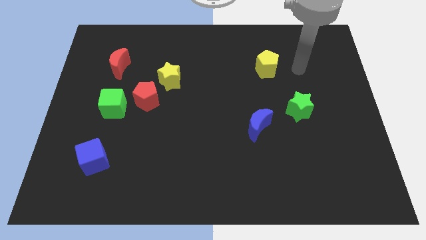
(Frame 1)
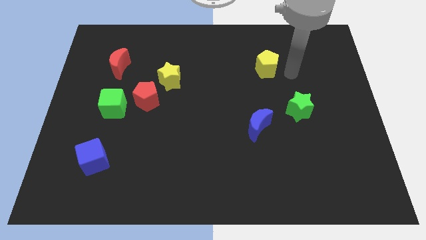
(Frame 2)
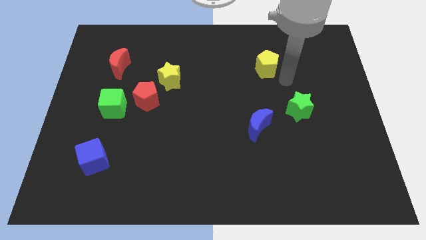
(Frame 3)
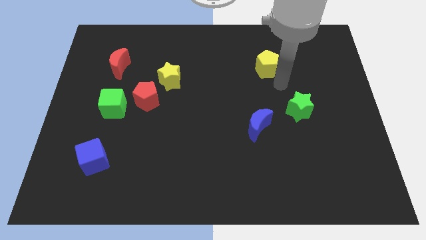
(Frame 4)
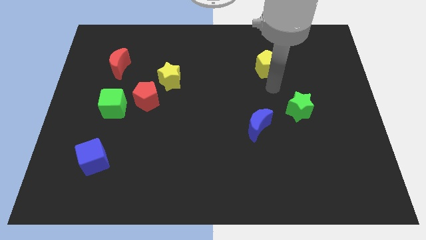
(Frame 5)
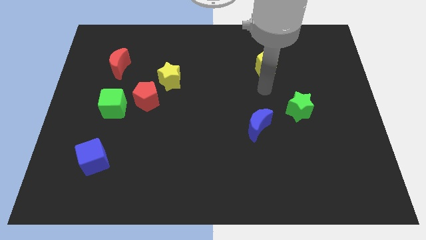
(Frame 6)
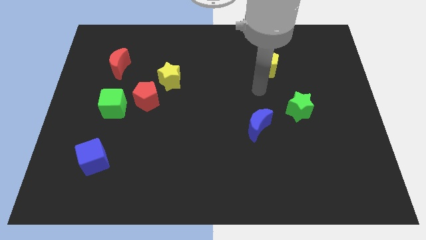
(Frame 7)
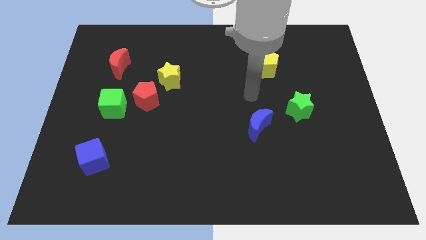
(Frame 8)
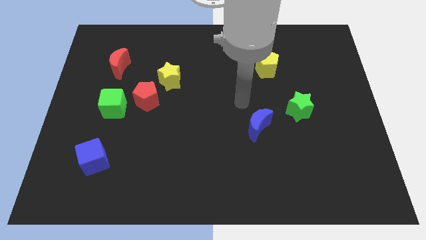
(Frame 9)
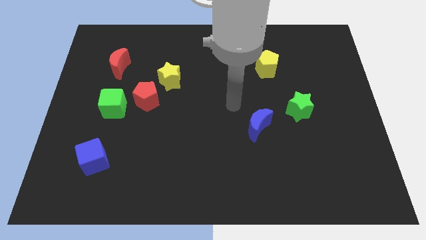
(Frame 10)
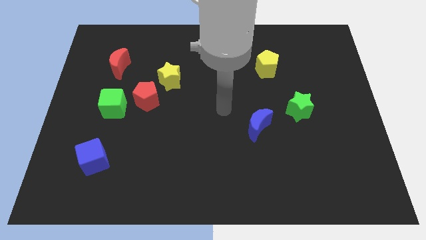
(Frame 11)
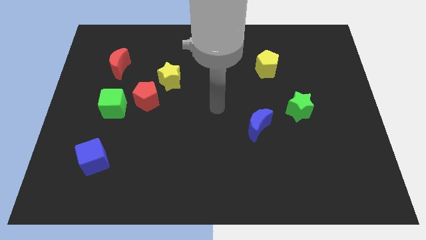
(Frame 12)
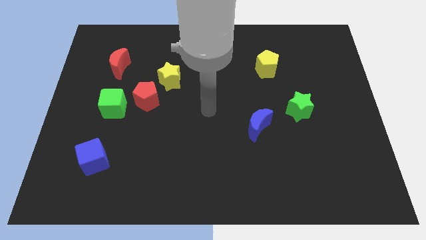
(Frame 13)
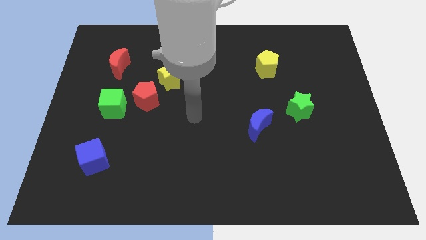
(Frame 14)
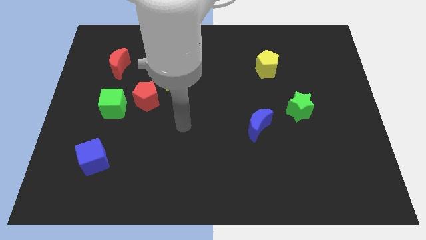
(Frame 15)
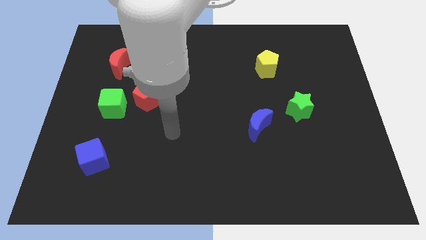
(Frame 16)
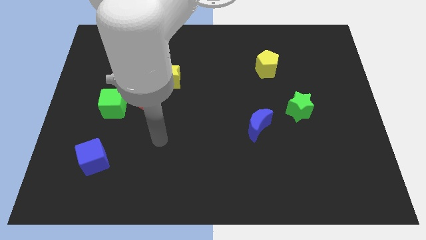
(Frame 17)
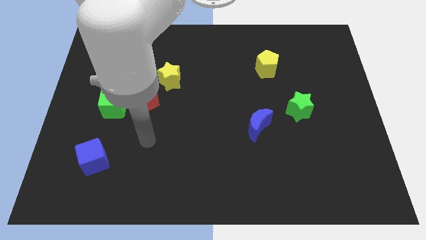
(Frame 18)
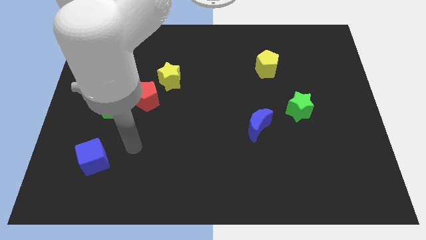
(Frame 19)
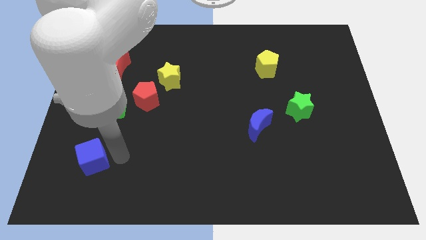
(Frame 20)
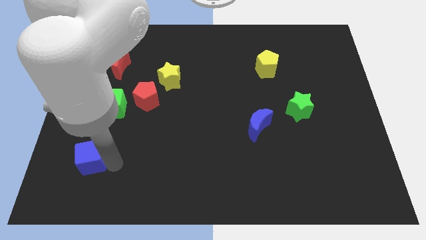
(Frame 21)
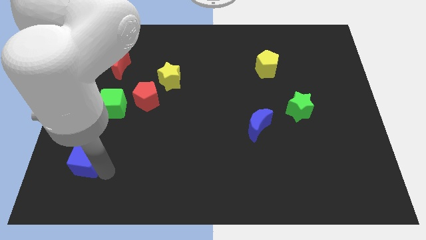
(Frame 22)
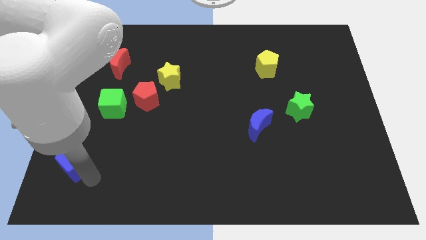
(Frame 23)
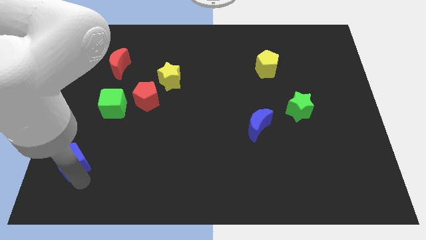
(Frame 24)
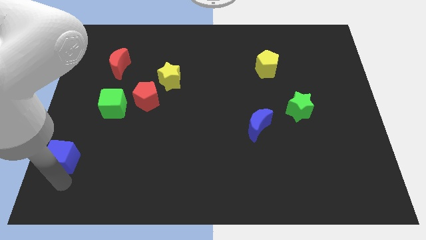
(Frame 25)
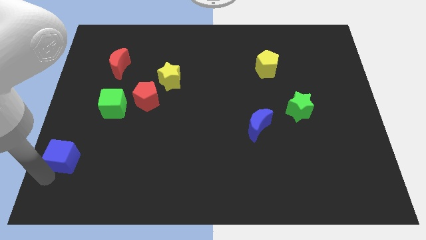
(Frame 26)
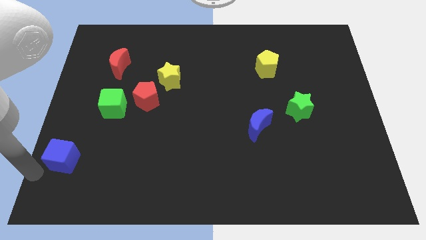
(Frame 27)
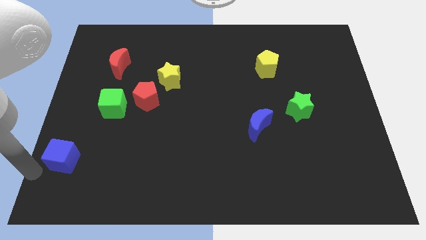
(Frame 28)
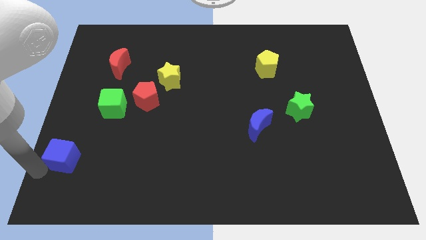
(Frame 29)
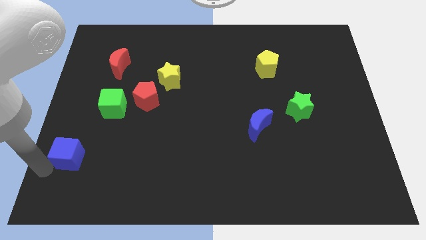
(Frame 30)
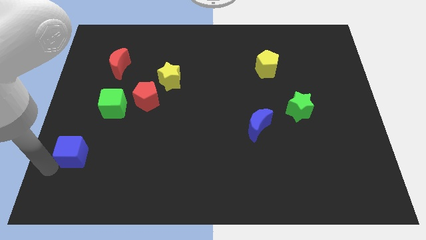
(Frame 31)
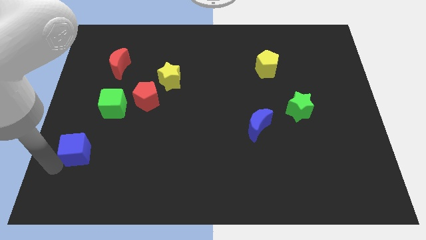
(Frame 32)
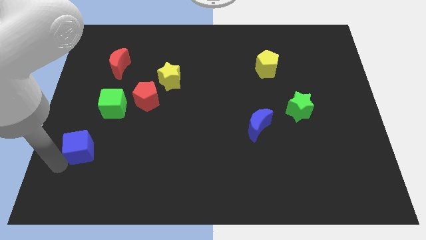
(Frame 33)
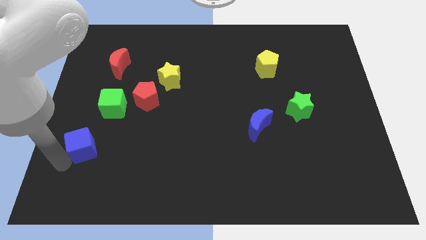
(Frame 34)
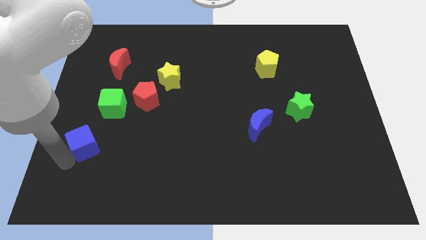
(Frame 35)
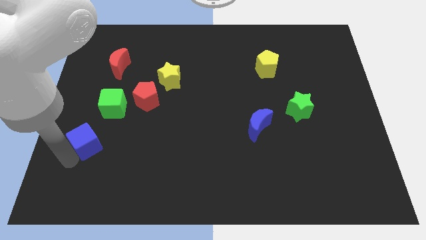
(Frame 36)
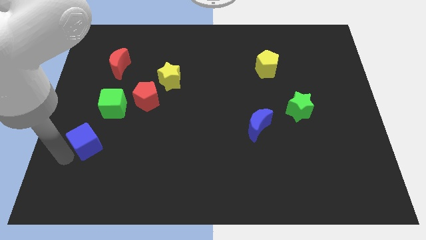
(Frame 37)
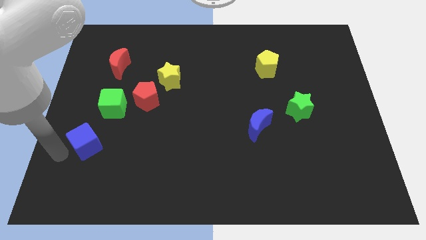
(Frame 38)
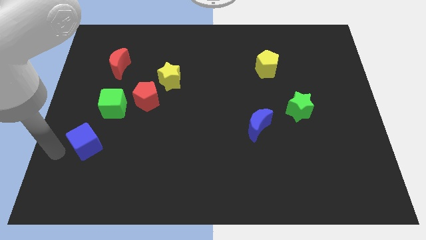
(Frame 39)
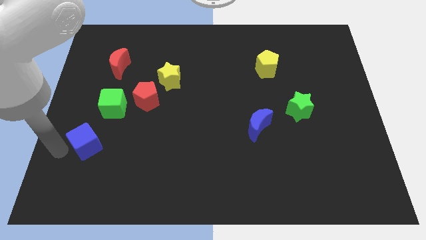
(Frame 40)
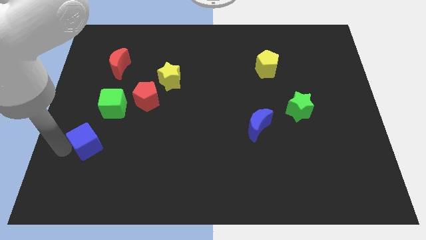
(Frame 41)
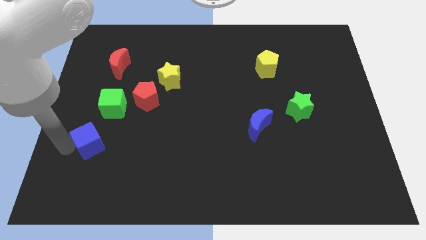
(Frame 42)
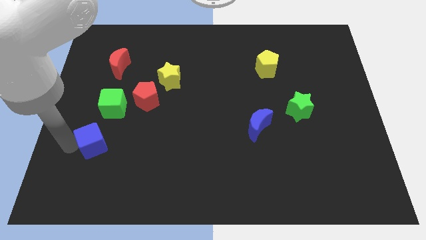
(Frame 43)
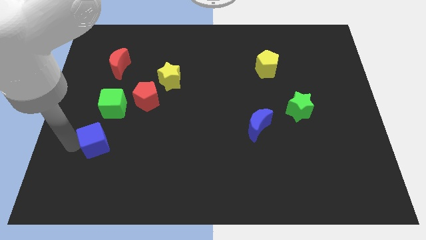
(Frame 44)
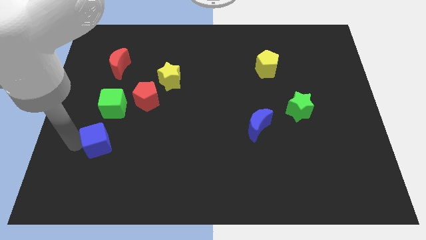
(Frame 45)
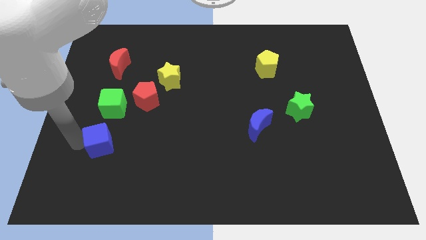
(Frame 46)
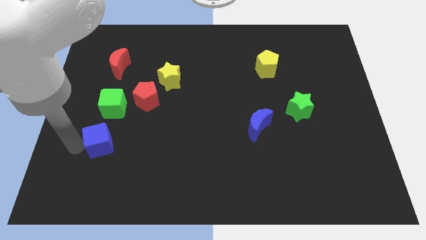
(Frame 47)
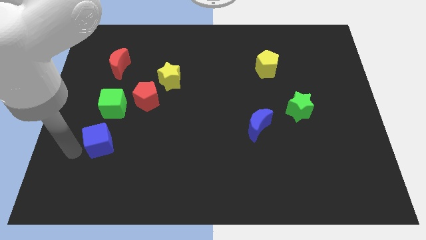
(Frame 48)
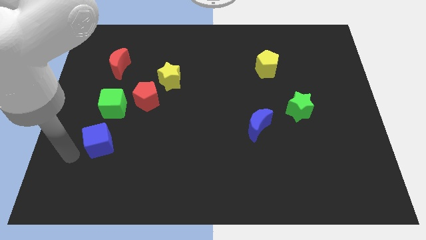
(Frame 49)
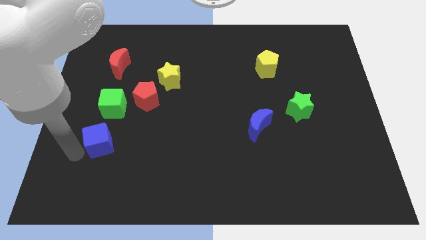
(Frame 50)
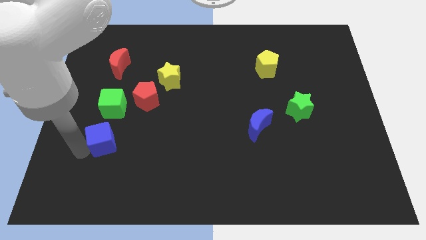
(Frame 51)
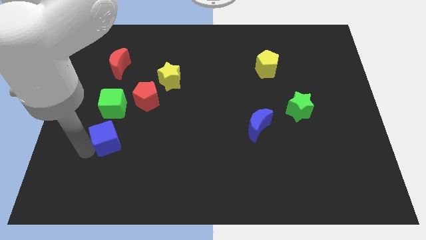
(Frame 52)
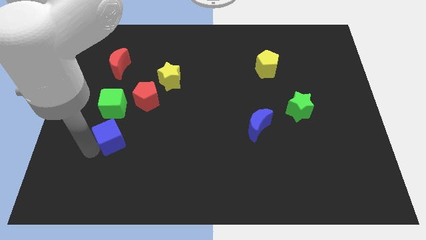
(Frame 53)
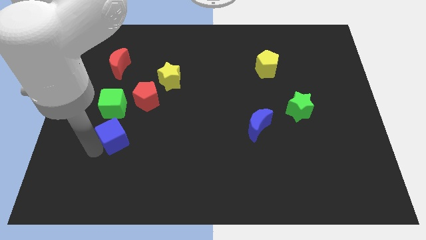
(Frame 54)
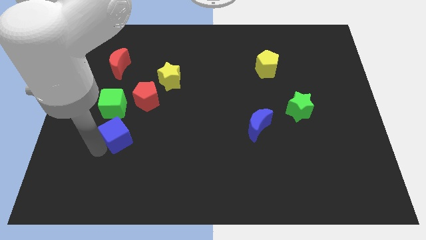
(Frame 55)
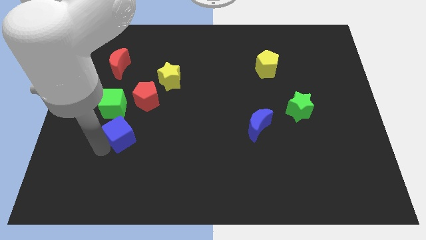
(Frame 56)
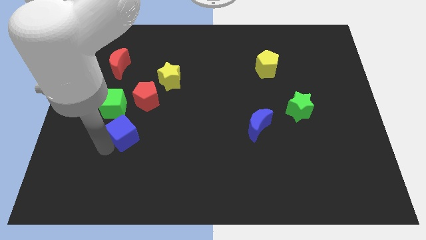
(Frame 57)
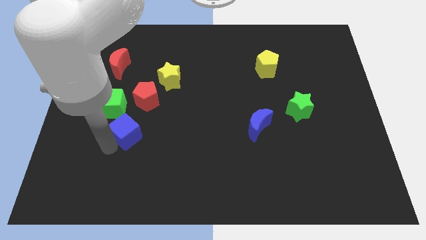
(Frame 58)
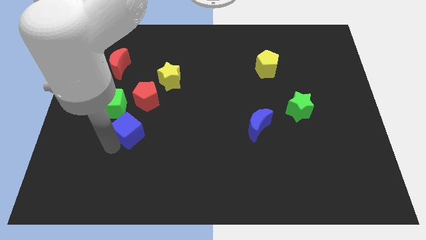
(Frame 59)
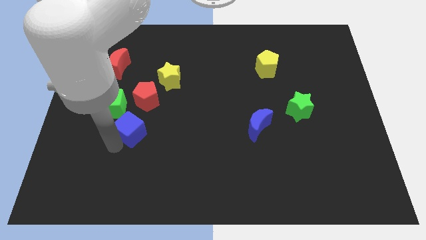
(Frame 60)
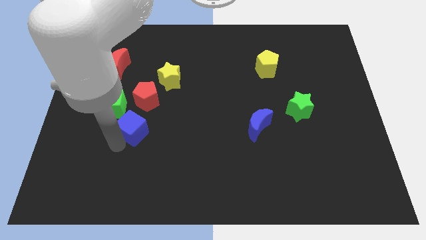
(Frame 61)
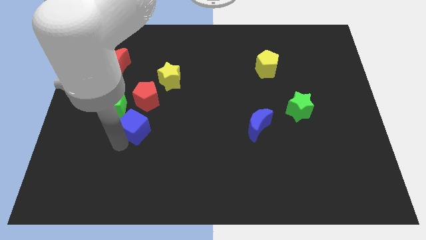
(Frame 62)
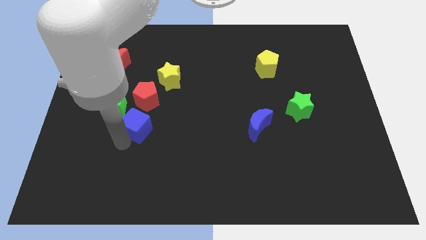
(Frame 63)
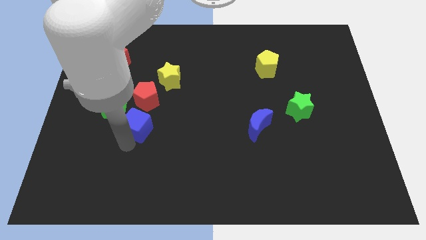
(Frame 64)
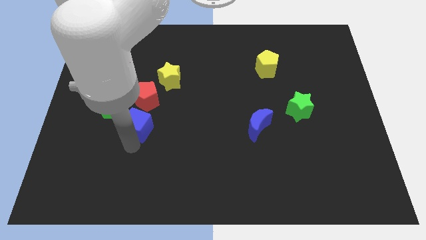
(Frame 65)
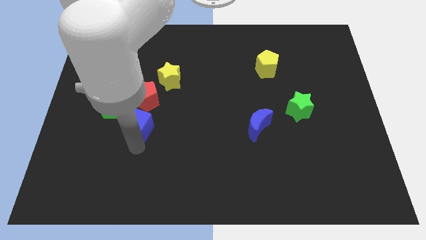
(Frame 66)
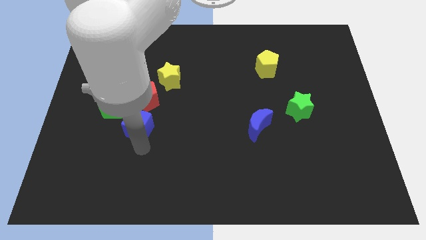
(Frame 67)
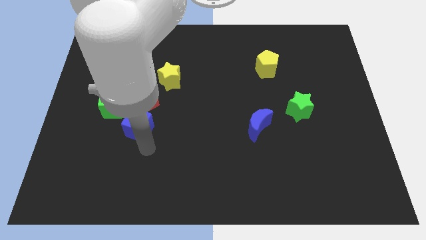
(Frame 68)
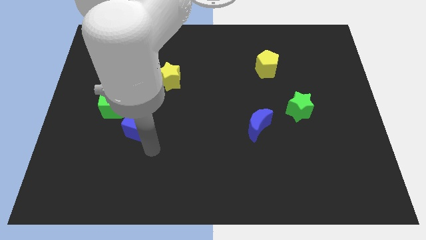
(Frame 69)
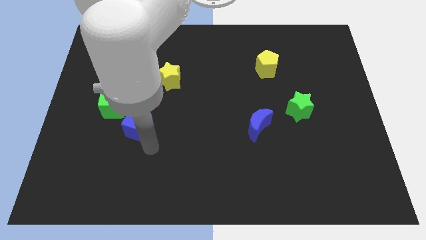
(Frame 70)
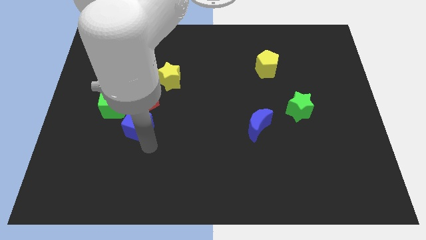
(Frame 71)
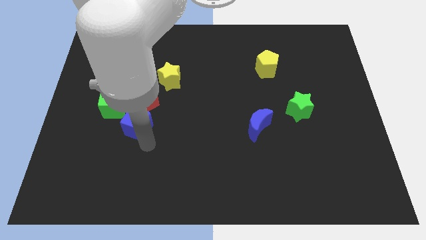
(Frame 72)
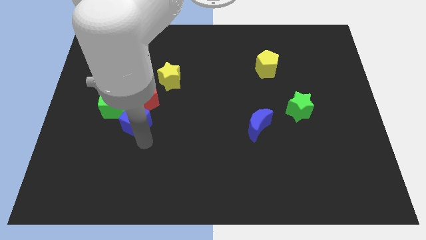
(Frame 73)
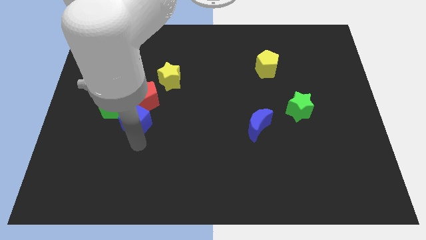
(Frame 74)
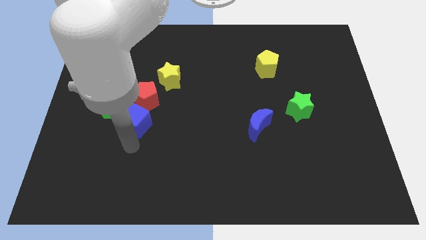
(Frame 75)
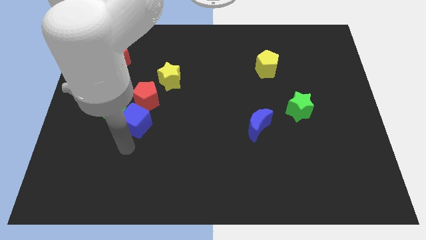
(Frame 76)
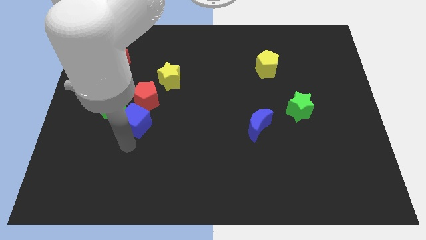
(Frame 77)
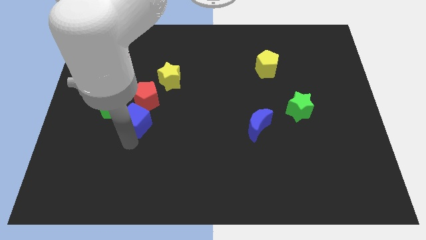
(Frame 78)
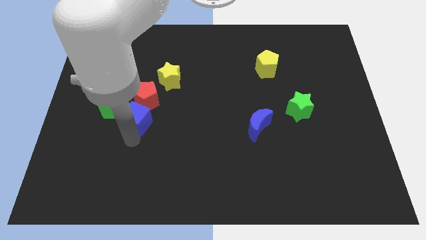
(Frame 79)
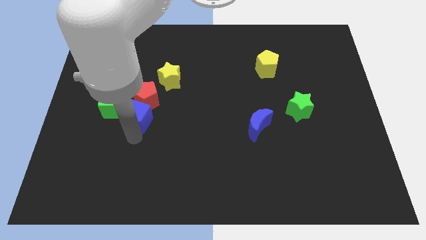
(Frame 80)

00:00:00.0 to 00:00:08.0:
push the blue cube to the red pentagon
